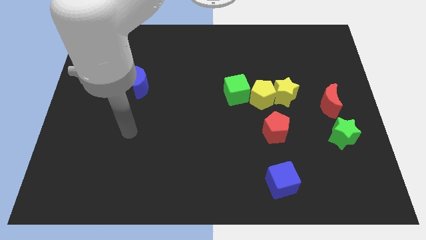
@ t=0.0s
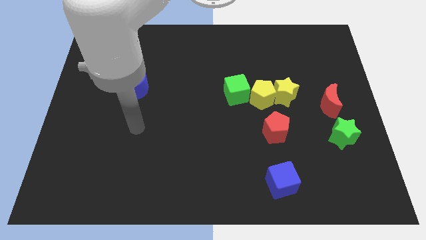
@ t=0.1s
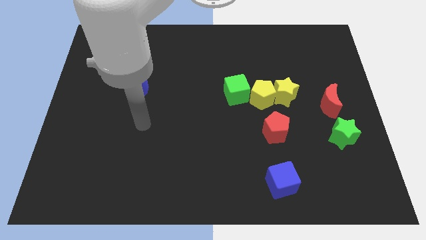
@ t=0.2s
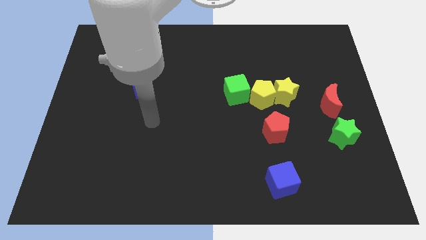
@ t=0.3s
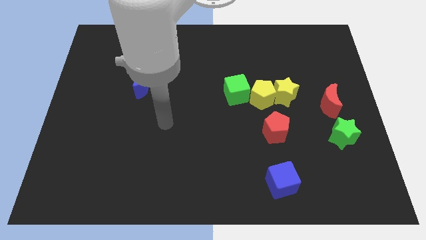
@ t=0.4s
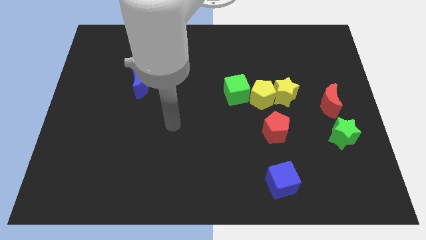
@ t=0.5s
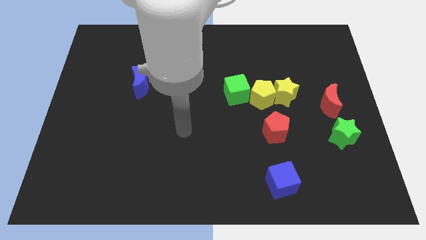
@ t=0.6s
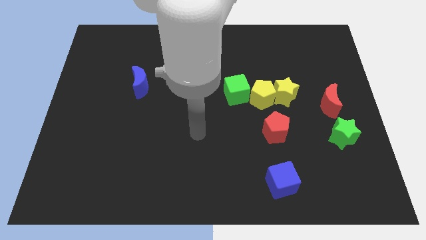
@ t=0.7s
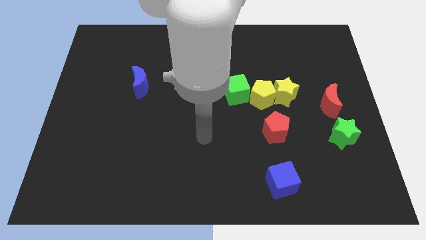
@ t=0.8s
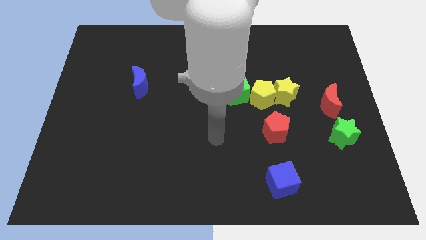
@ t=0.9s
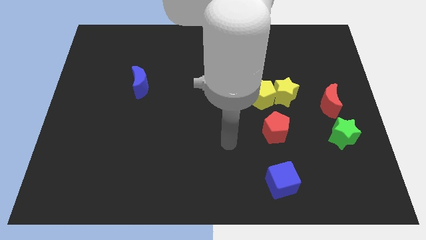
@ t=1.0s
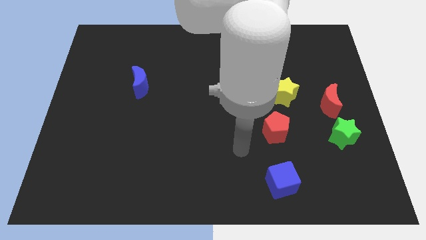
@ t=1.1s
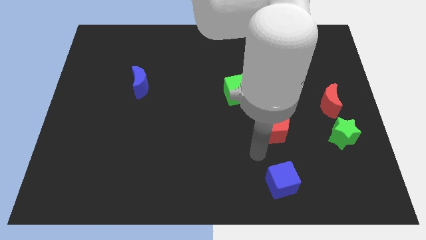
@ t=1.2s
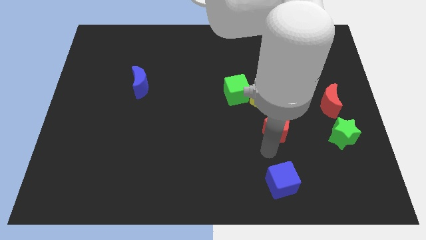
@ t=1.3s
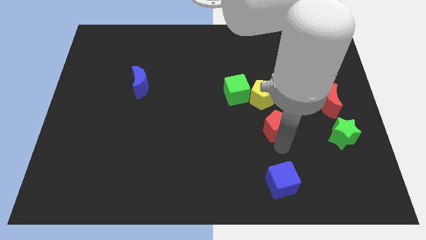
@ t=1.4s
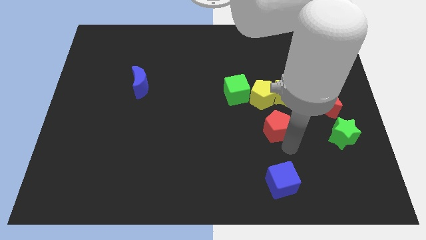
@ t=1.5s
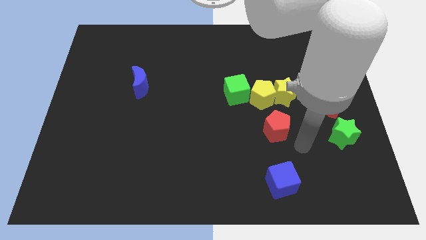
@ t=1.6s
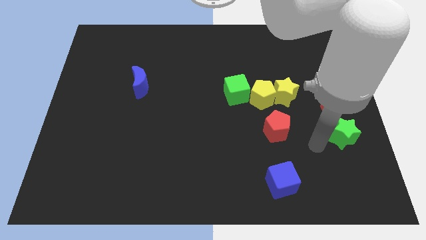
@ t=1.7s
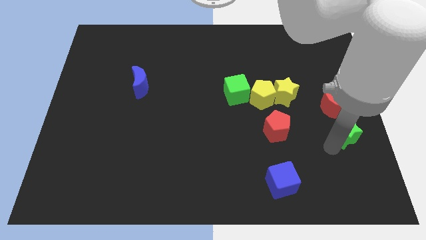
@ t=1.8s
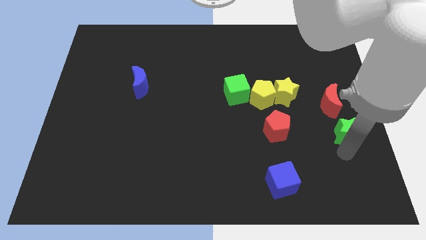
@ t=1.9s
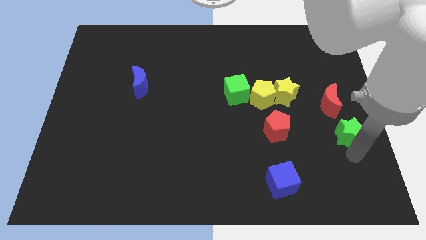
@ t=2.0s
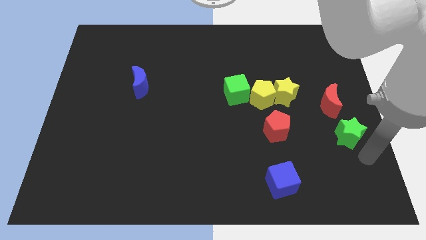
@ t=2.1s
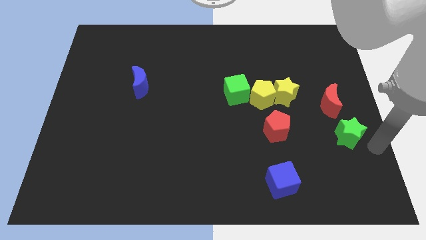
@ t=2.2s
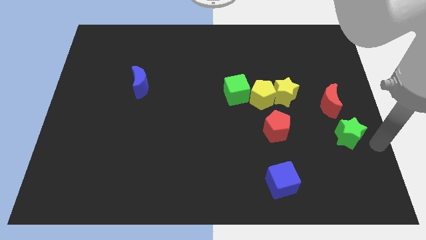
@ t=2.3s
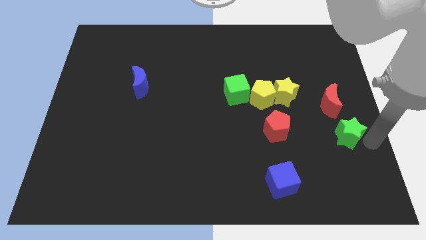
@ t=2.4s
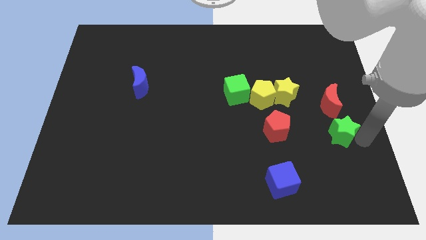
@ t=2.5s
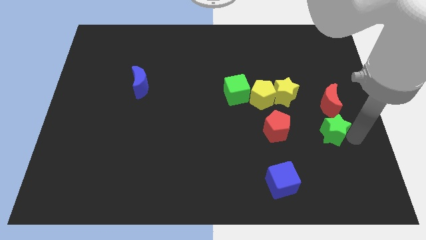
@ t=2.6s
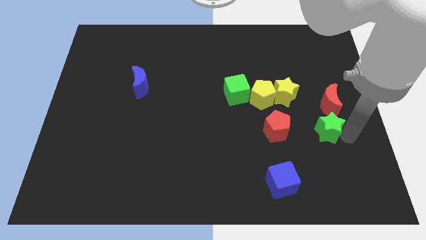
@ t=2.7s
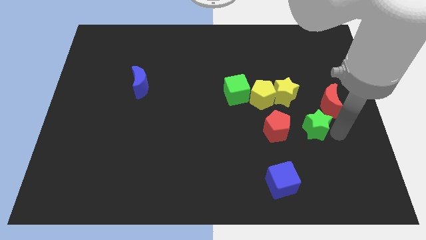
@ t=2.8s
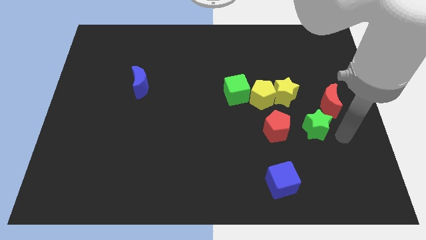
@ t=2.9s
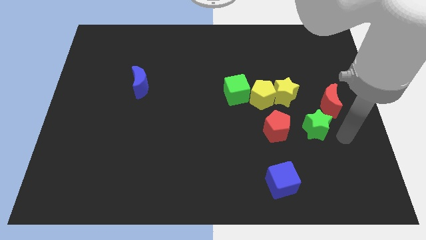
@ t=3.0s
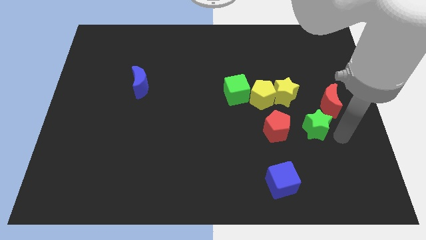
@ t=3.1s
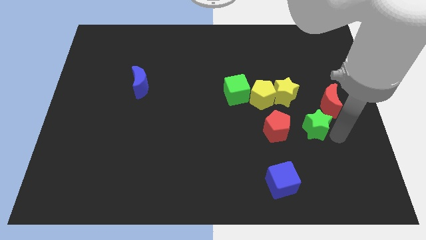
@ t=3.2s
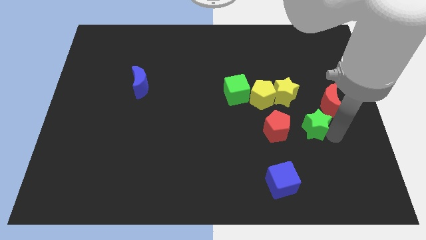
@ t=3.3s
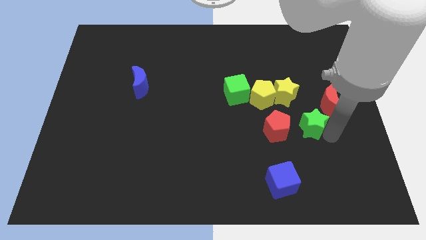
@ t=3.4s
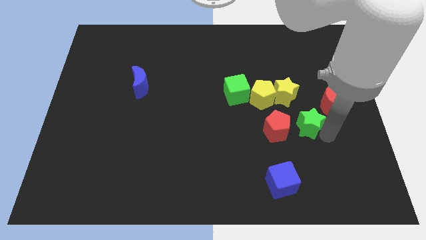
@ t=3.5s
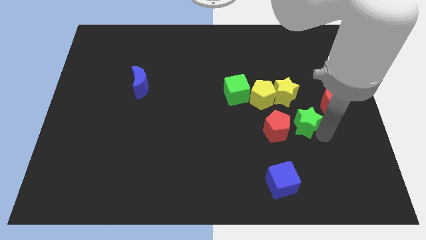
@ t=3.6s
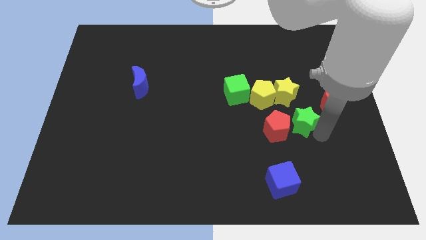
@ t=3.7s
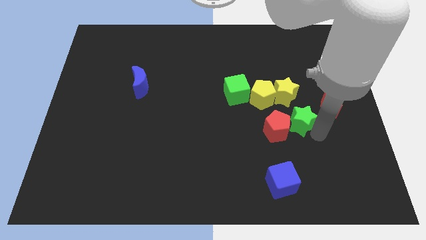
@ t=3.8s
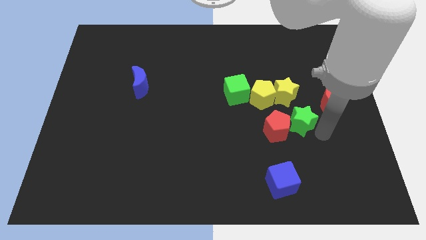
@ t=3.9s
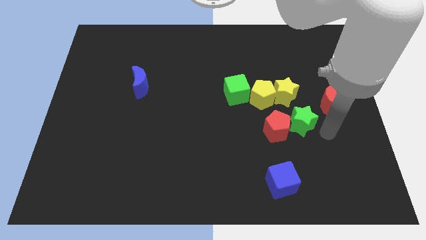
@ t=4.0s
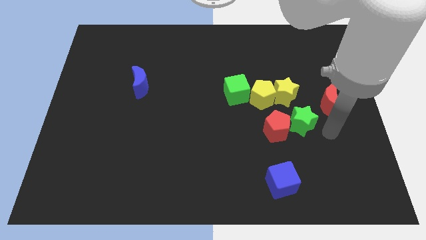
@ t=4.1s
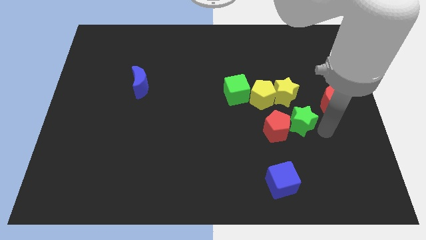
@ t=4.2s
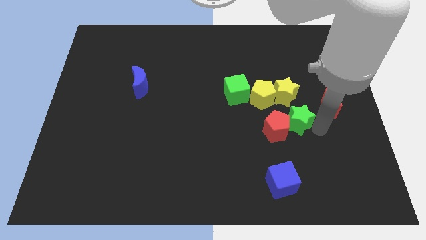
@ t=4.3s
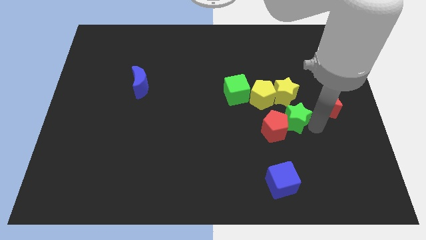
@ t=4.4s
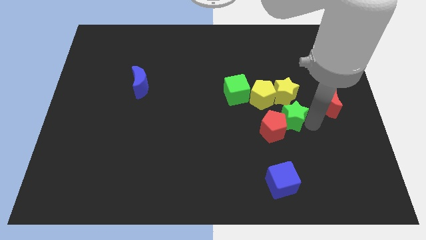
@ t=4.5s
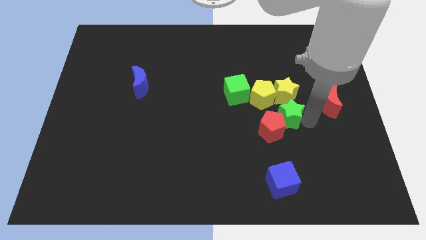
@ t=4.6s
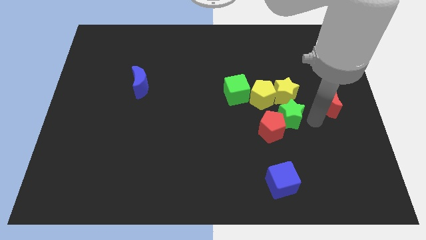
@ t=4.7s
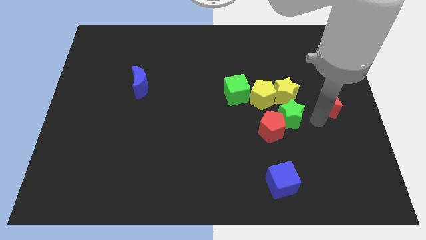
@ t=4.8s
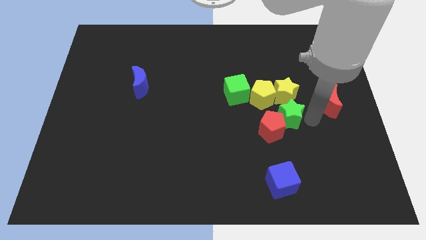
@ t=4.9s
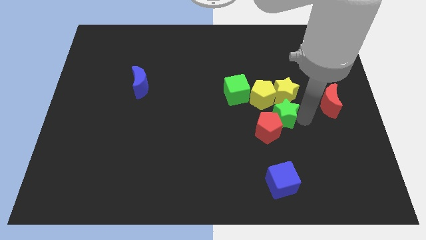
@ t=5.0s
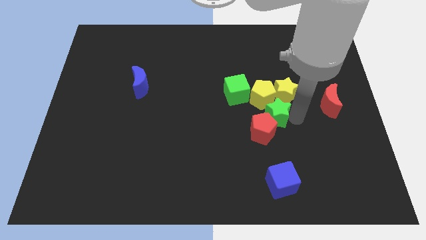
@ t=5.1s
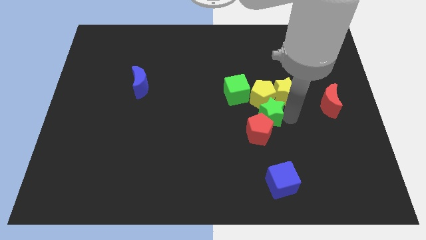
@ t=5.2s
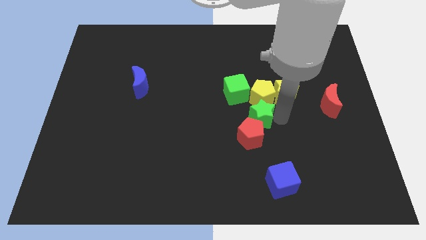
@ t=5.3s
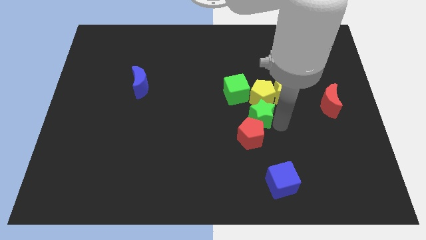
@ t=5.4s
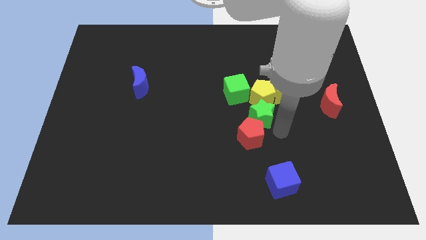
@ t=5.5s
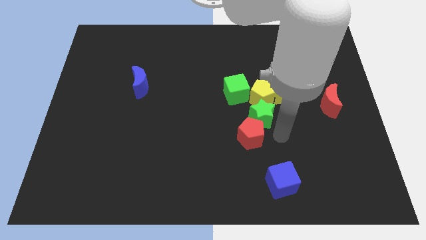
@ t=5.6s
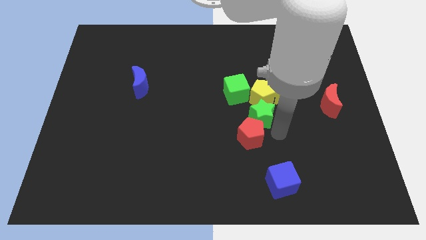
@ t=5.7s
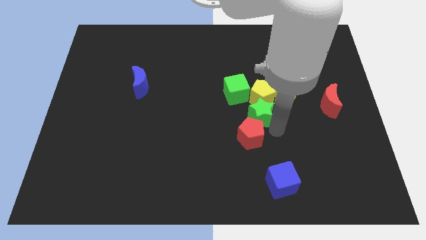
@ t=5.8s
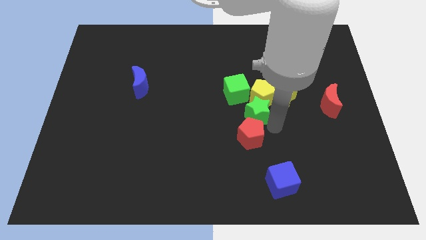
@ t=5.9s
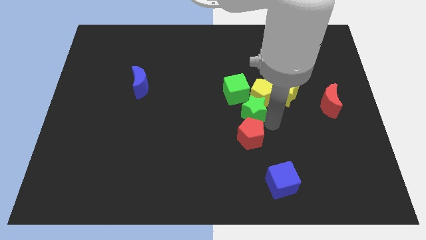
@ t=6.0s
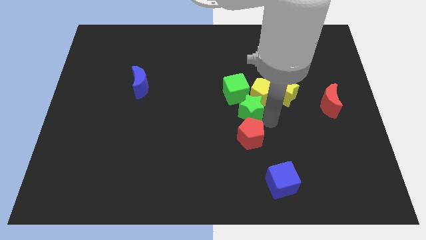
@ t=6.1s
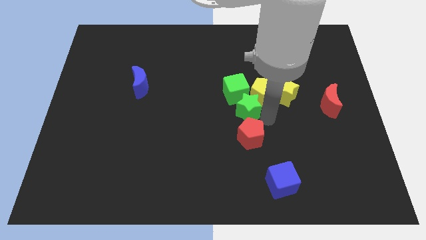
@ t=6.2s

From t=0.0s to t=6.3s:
slide the green star to the green cube

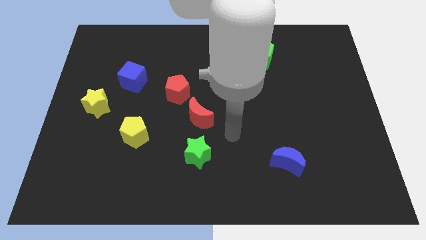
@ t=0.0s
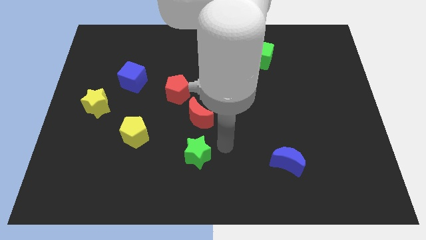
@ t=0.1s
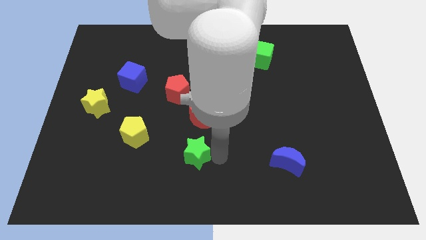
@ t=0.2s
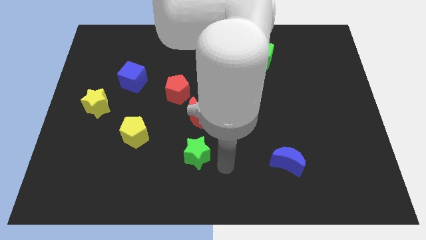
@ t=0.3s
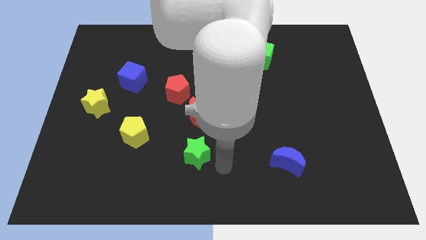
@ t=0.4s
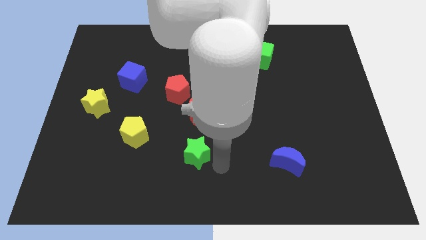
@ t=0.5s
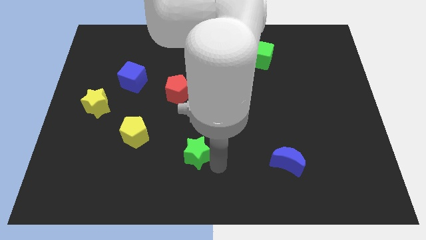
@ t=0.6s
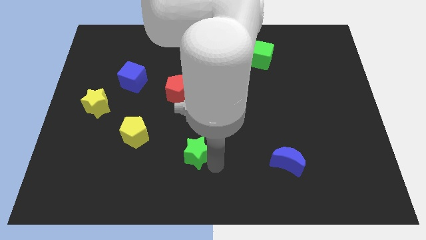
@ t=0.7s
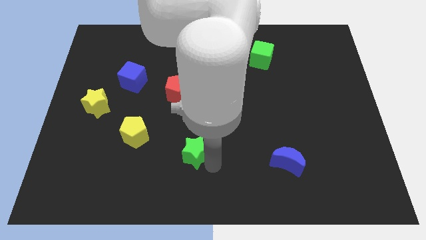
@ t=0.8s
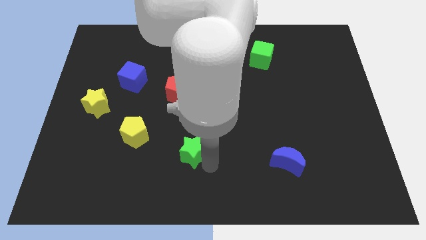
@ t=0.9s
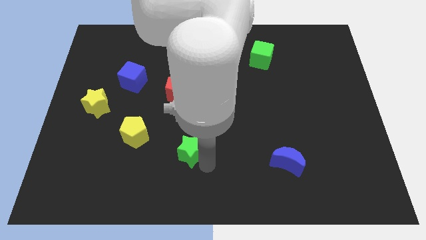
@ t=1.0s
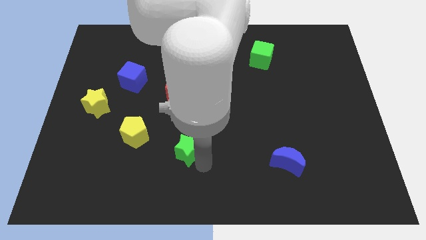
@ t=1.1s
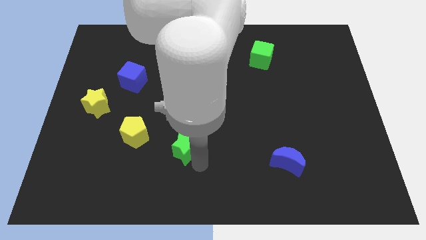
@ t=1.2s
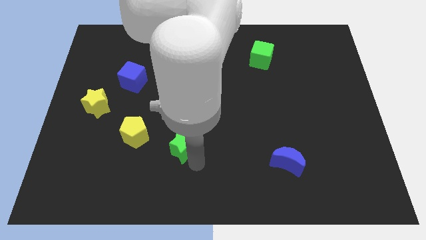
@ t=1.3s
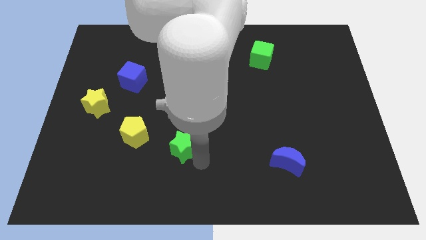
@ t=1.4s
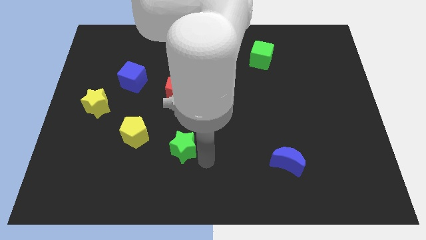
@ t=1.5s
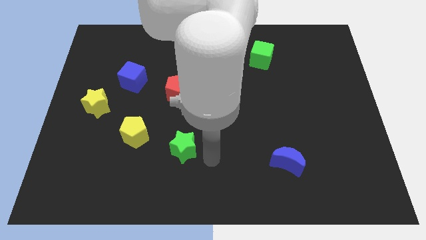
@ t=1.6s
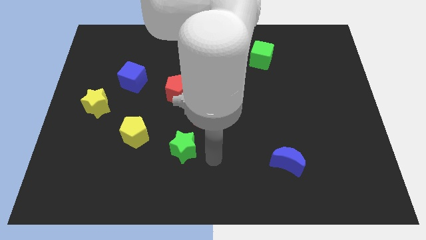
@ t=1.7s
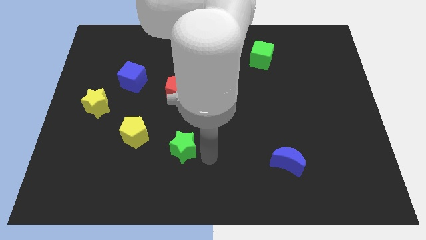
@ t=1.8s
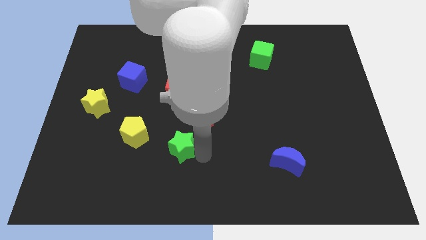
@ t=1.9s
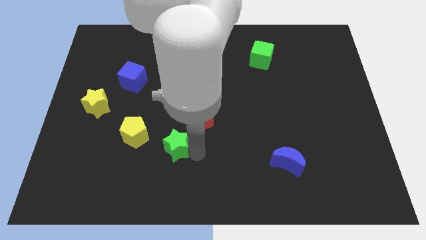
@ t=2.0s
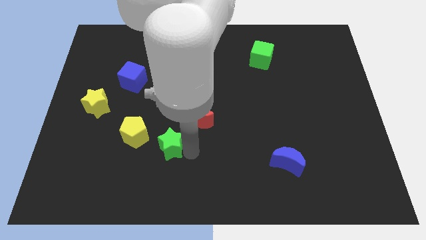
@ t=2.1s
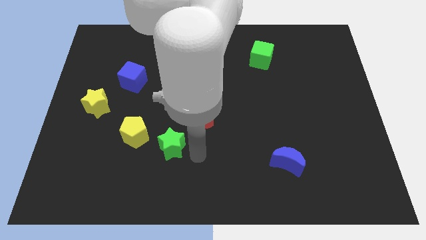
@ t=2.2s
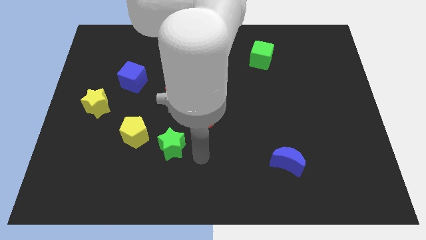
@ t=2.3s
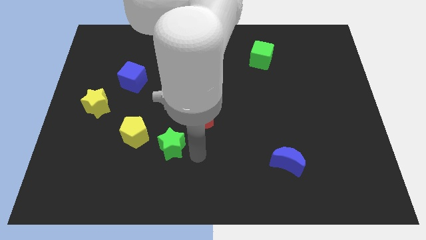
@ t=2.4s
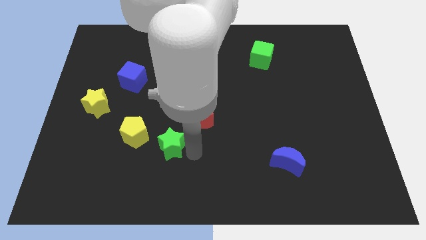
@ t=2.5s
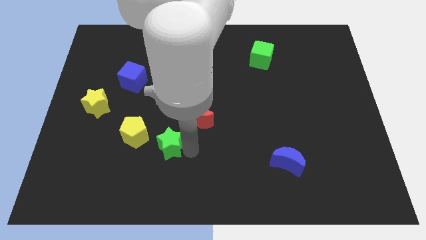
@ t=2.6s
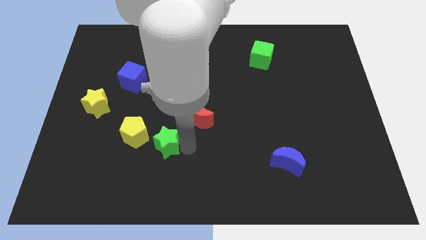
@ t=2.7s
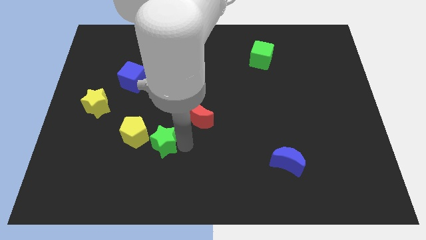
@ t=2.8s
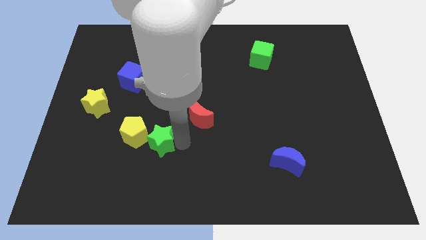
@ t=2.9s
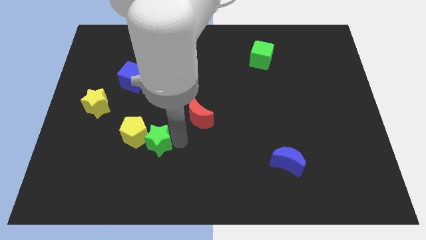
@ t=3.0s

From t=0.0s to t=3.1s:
put the green star next to the yellow pentagon
